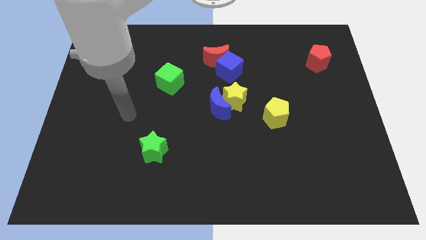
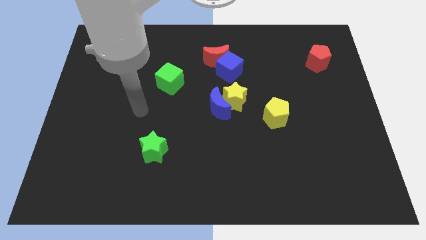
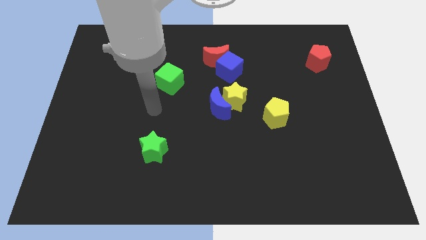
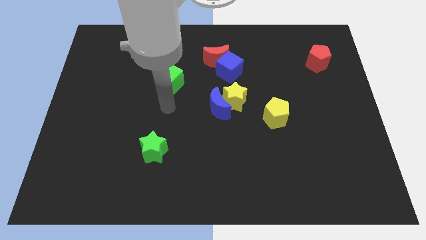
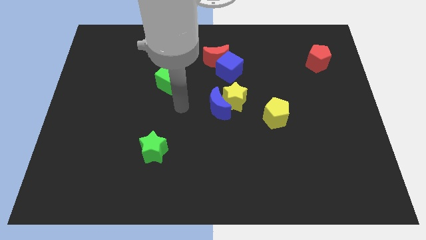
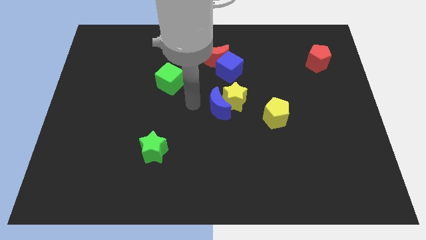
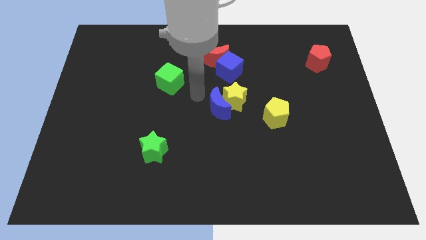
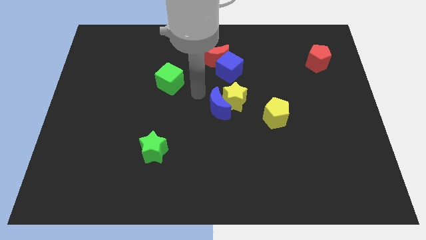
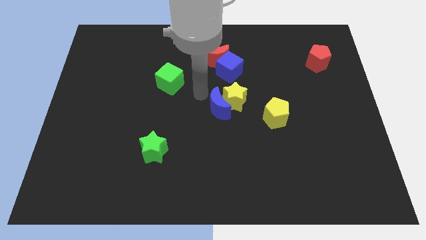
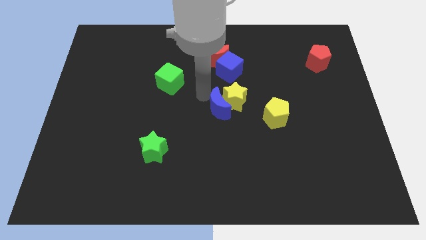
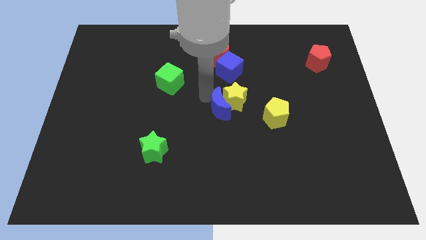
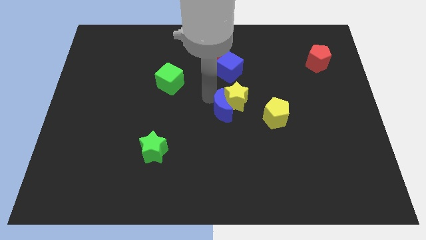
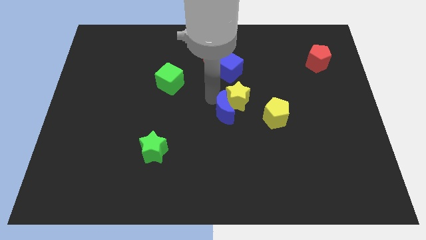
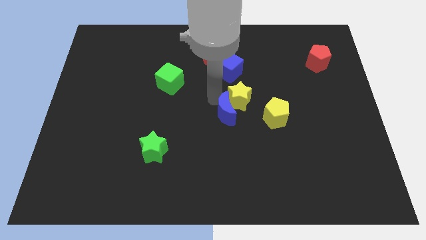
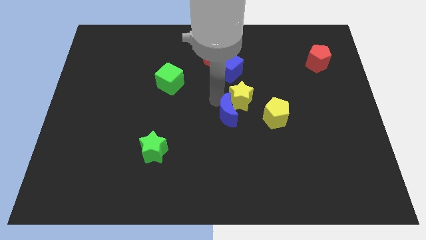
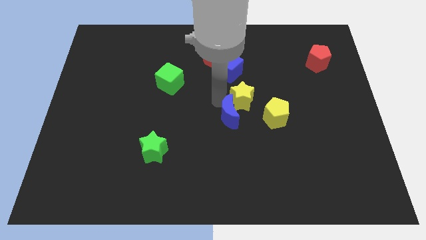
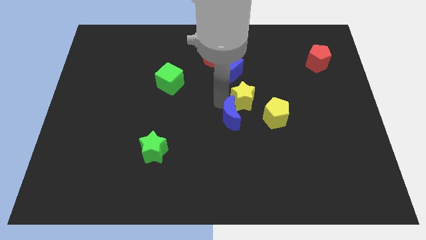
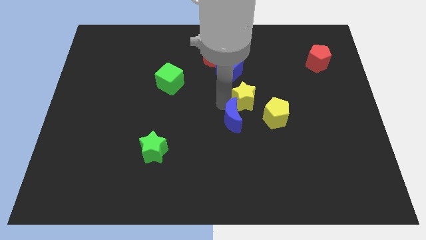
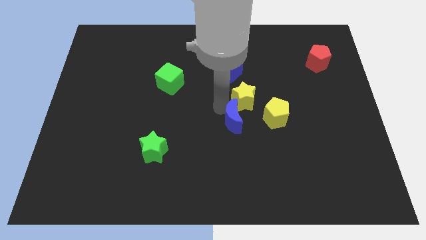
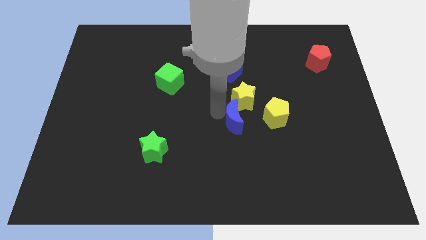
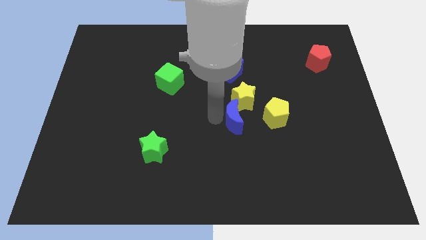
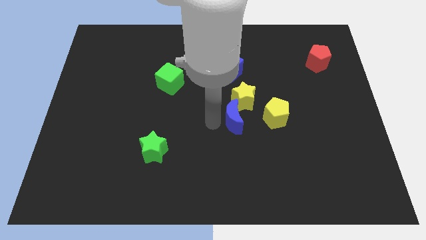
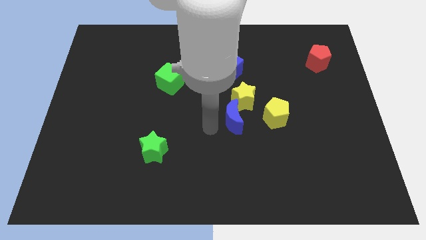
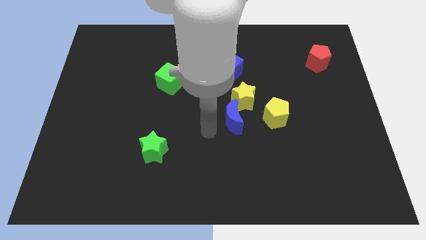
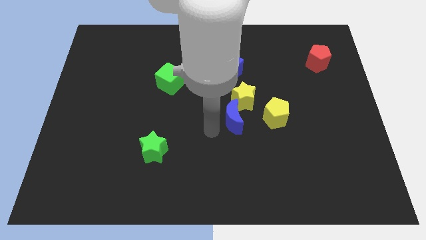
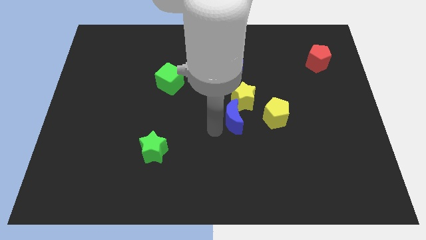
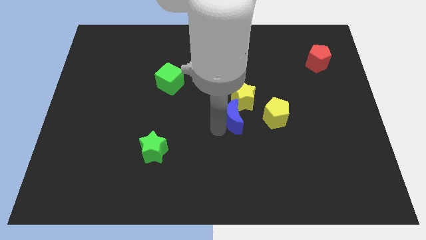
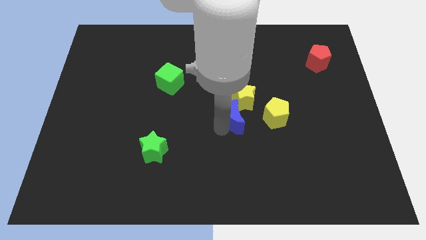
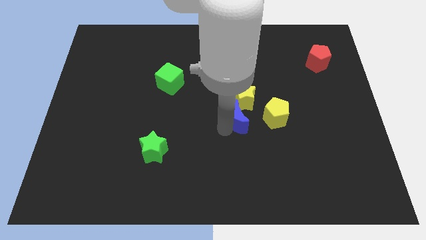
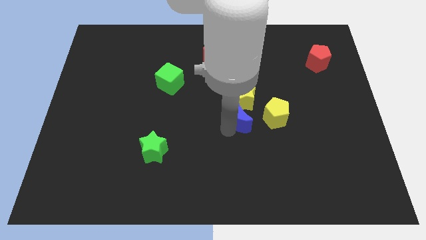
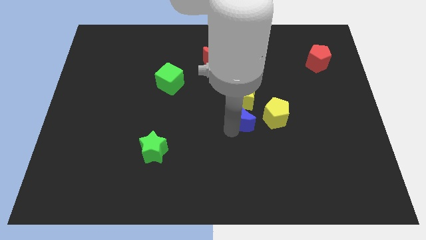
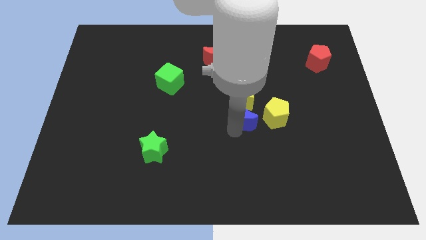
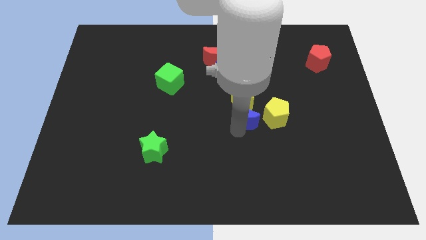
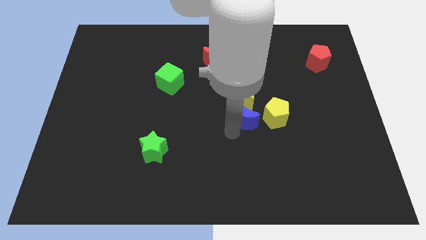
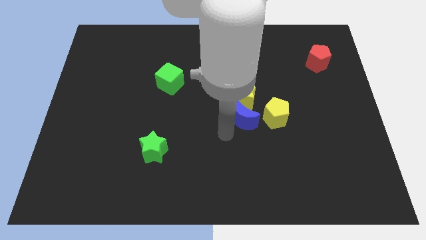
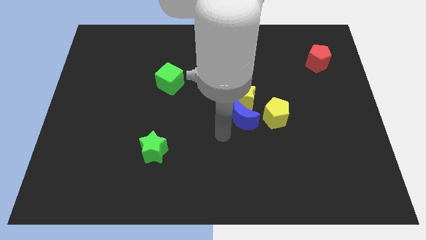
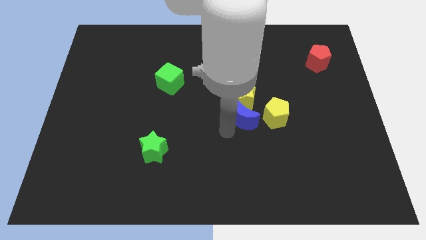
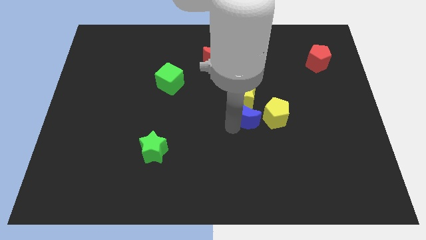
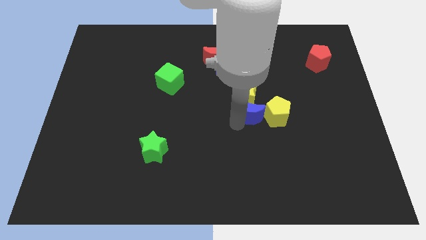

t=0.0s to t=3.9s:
move the blue moon right slightly

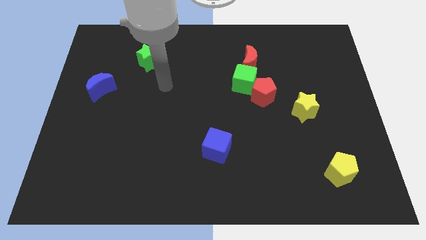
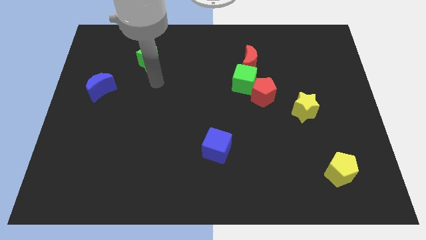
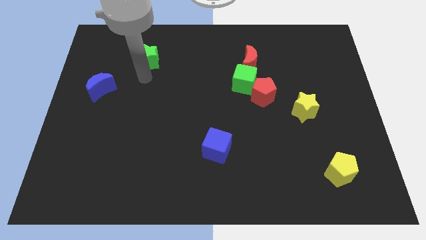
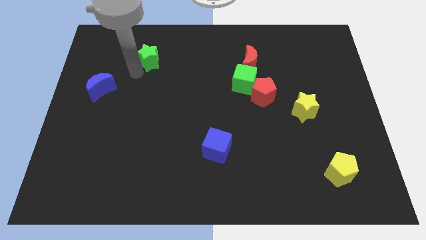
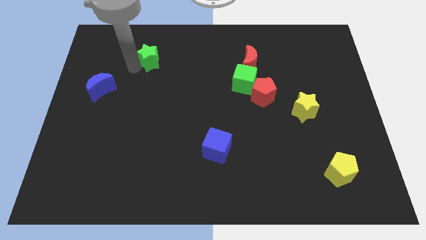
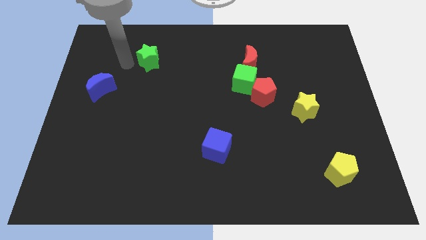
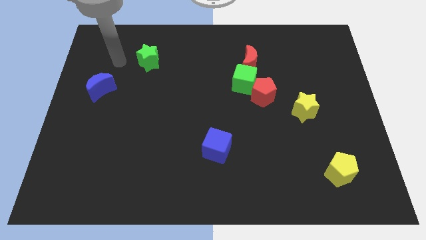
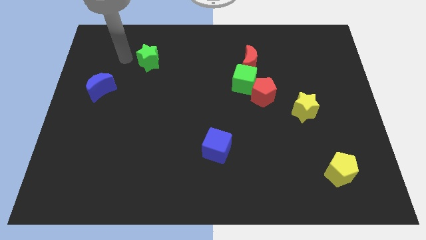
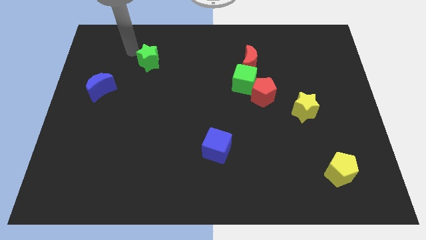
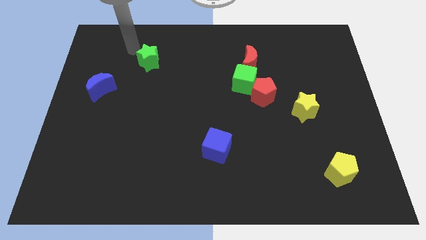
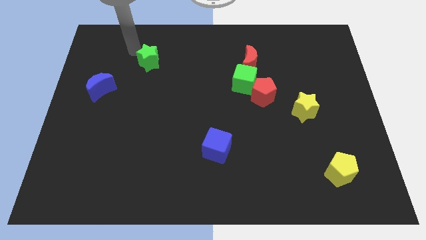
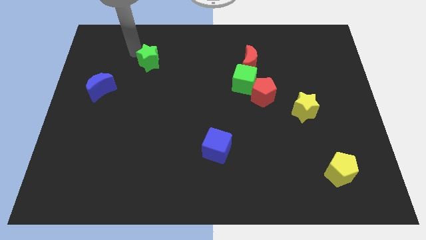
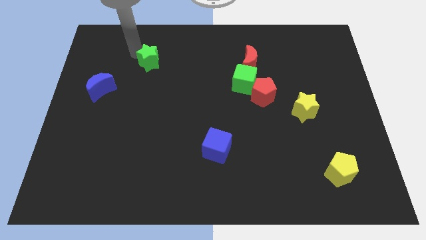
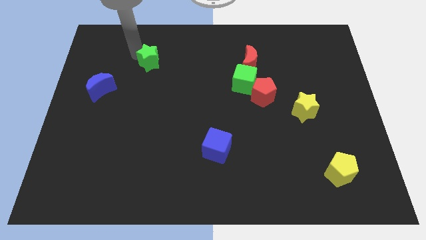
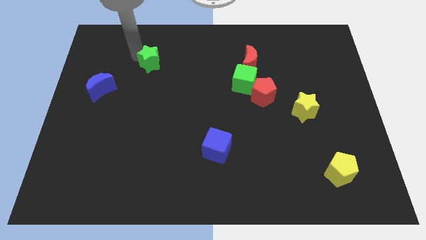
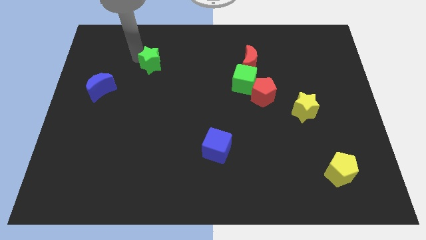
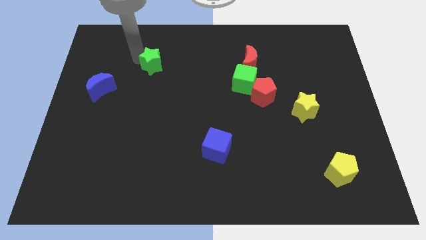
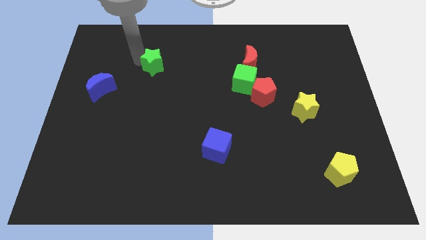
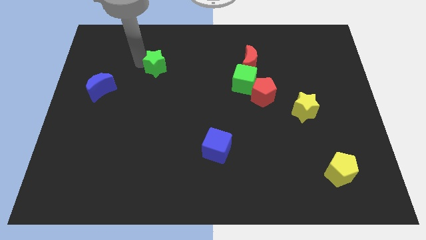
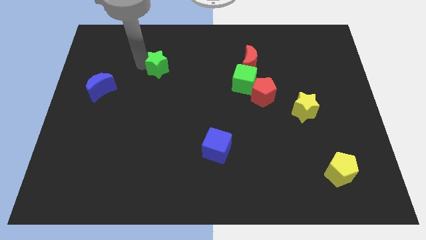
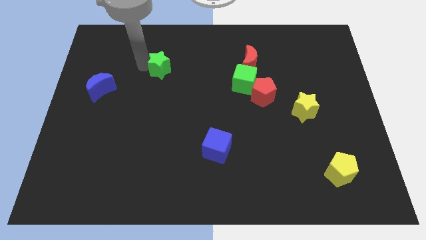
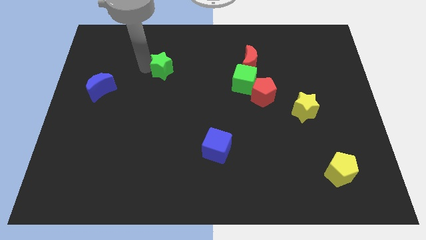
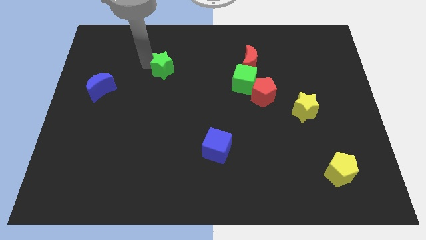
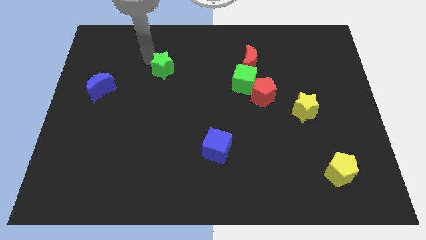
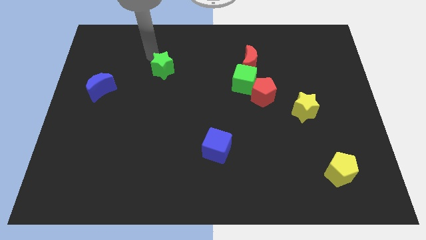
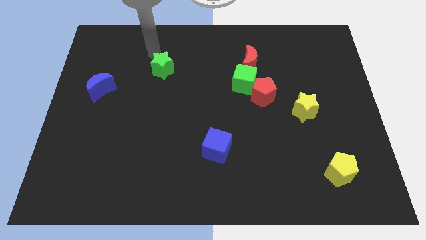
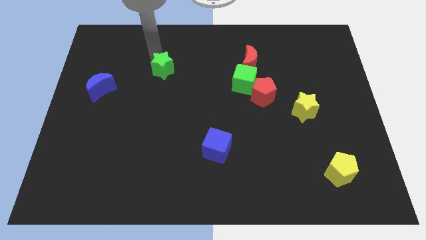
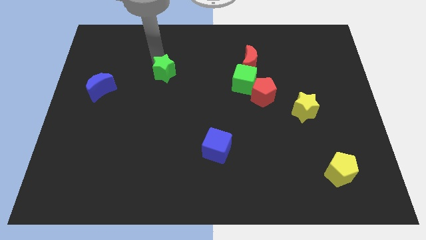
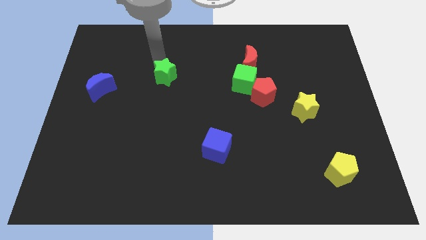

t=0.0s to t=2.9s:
slide the green star down and then right a bit

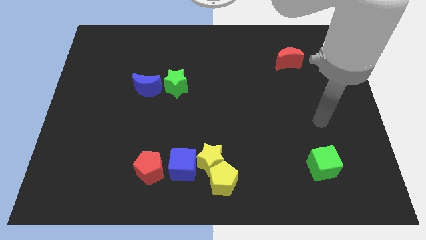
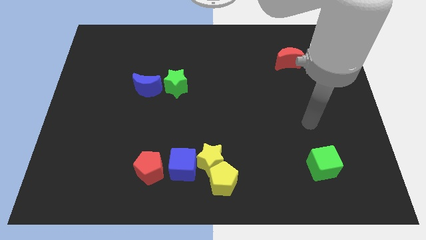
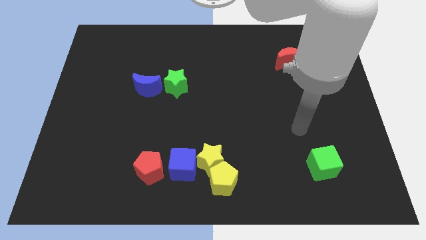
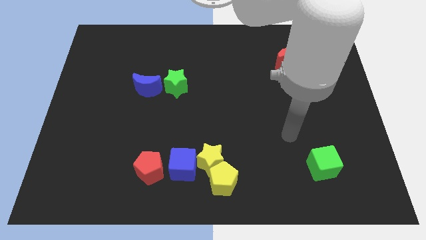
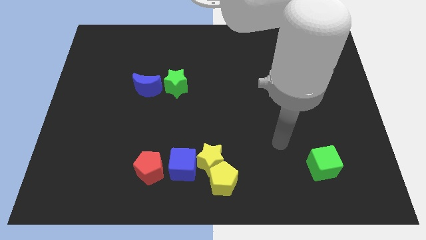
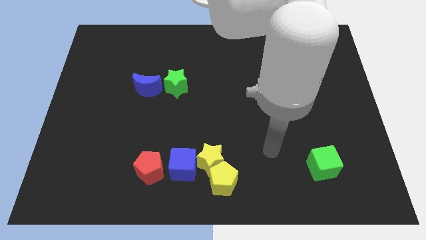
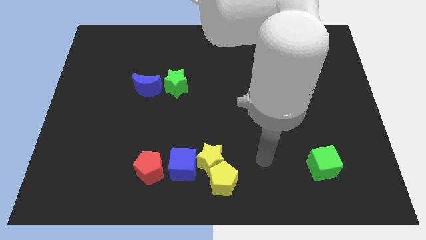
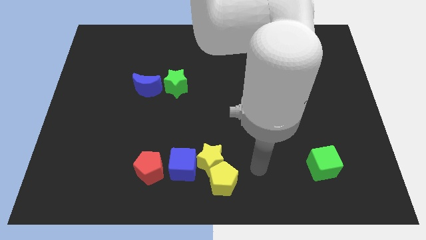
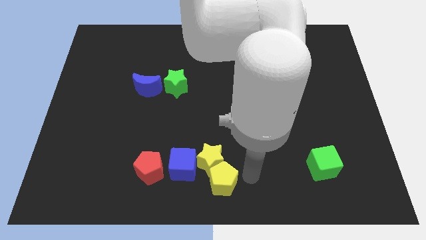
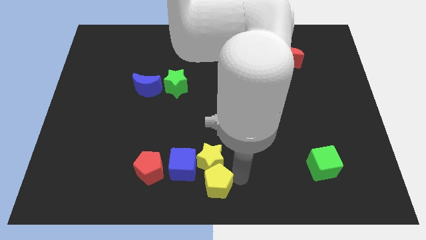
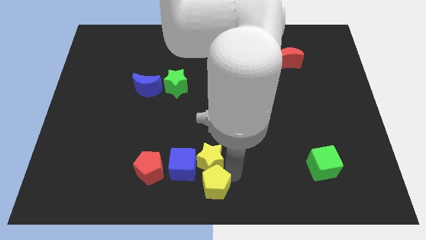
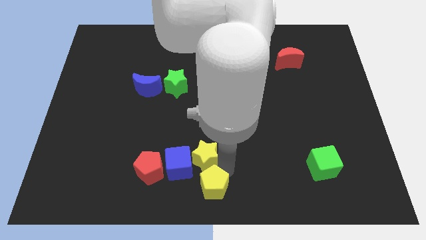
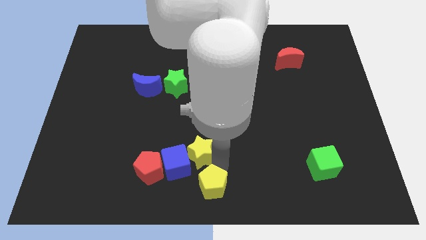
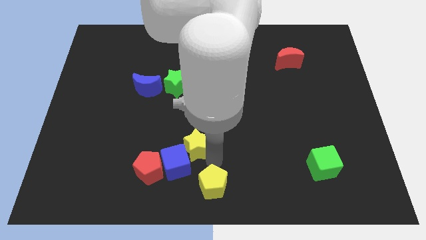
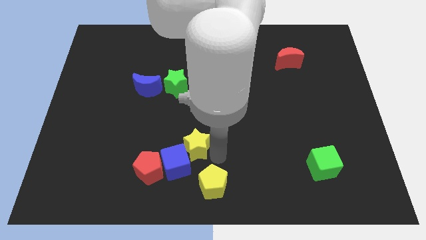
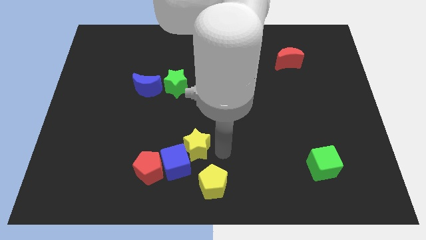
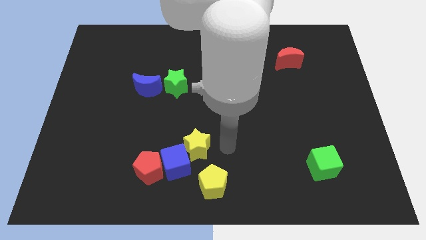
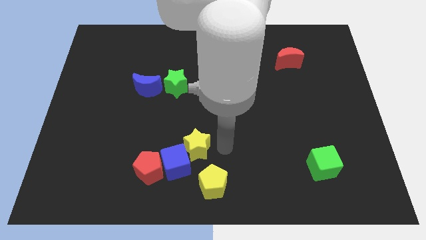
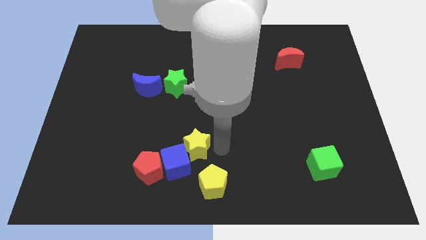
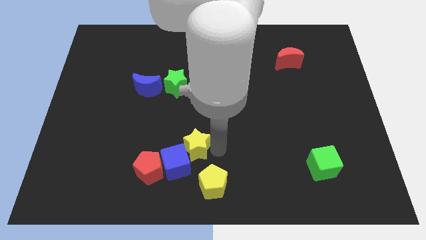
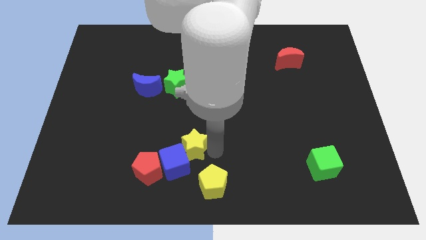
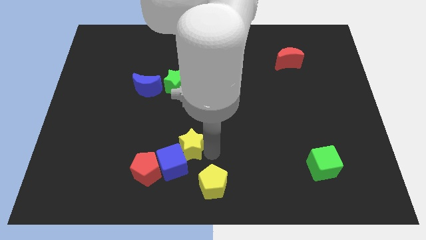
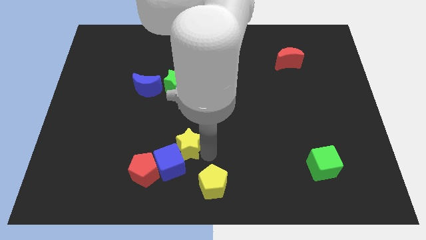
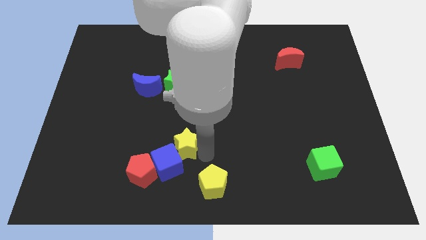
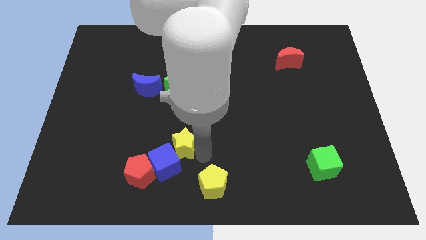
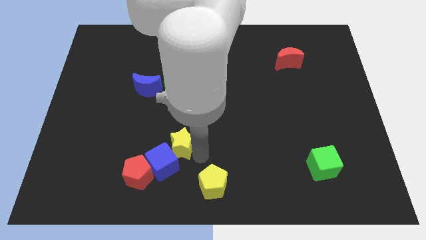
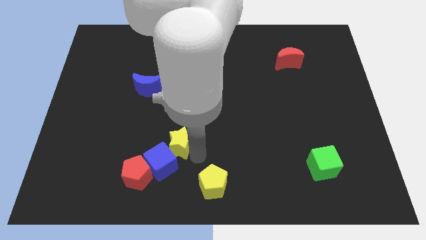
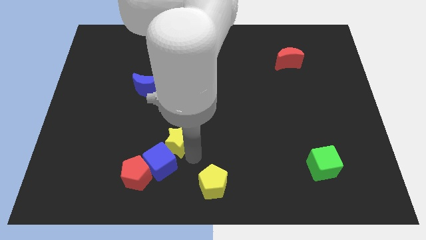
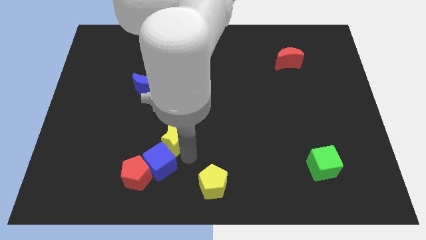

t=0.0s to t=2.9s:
push the yellow star slightly to the left
